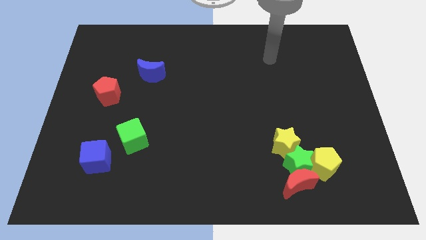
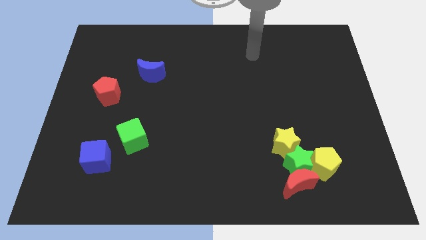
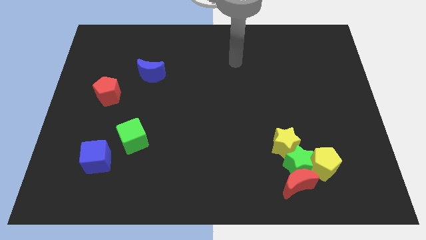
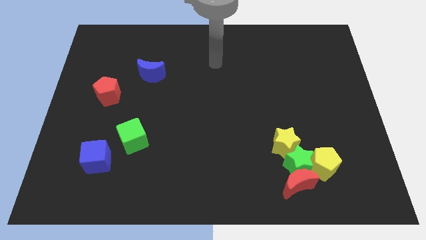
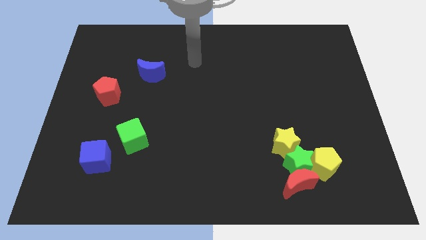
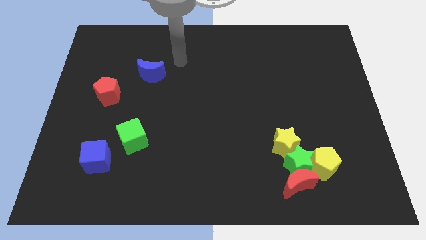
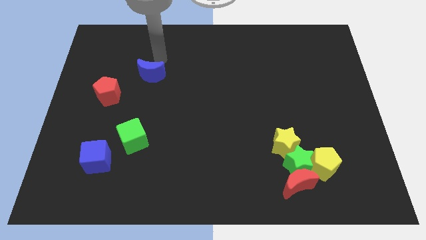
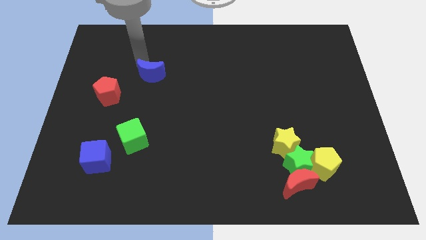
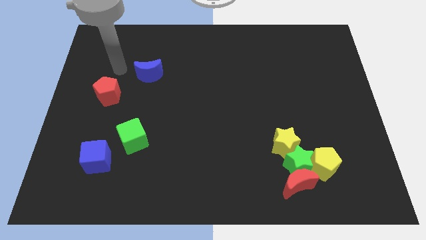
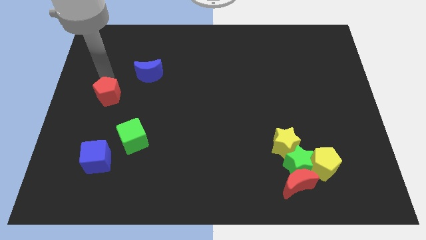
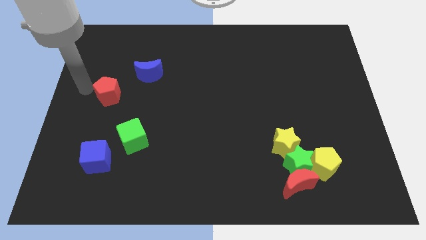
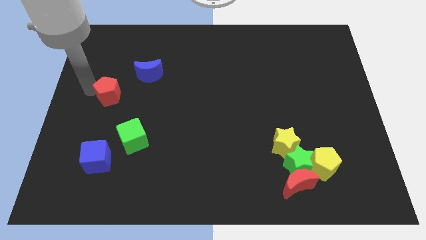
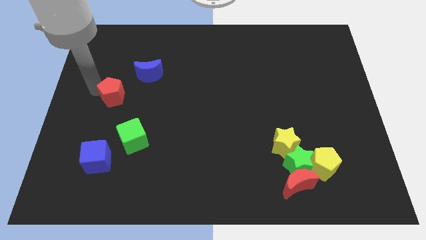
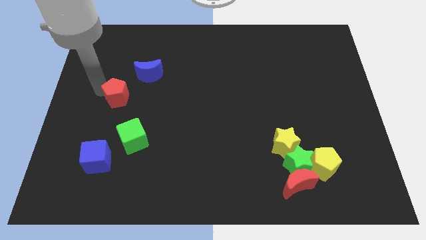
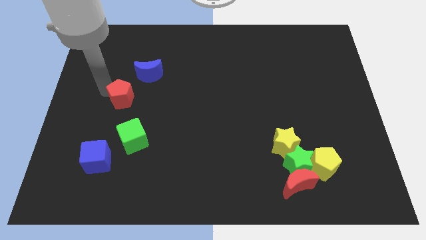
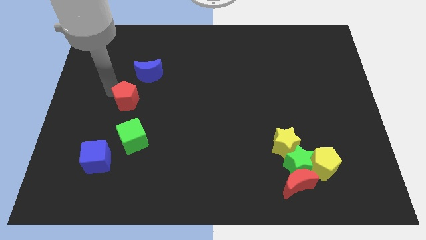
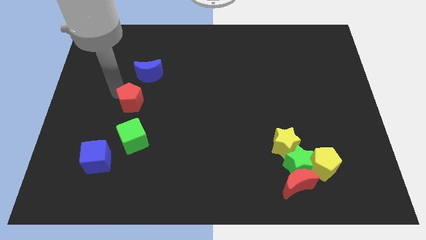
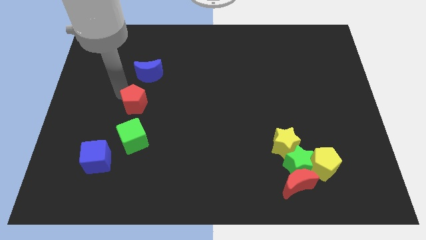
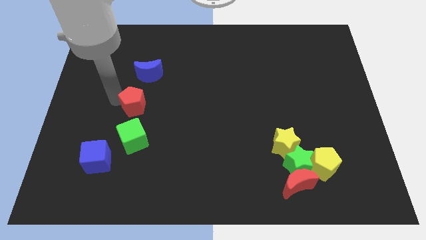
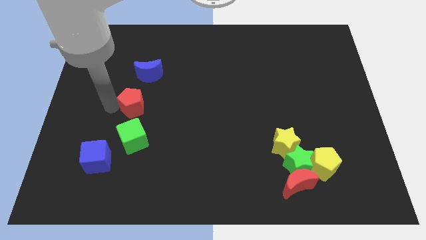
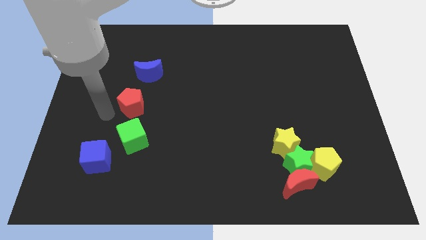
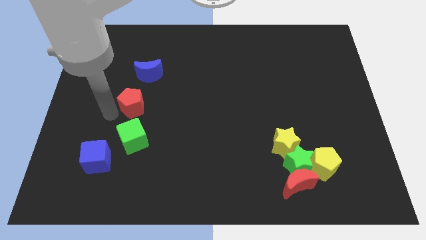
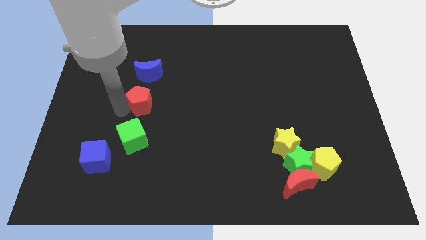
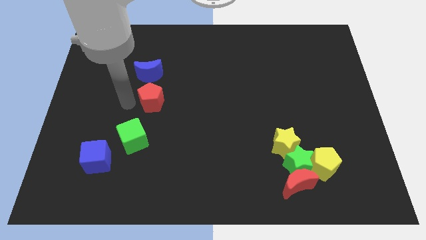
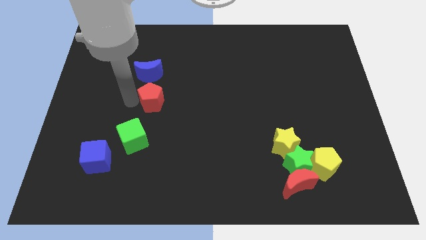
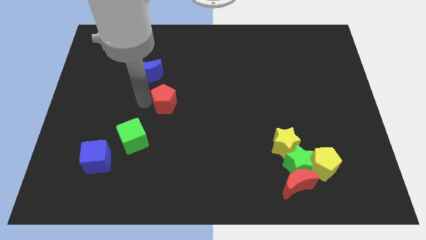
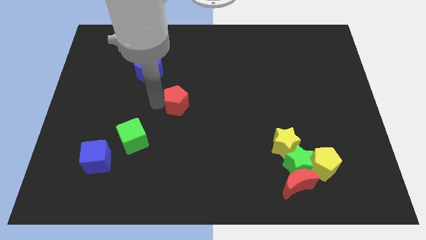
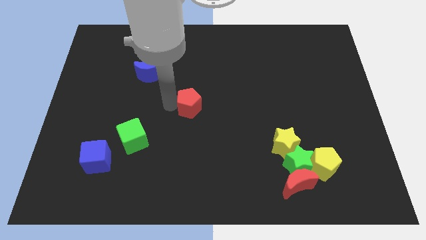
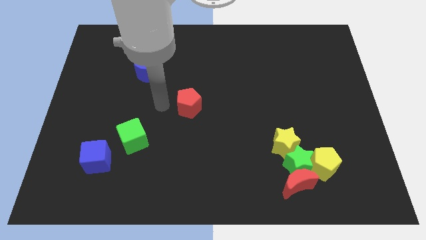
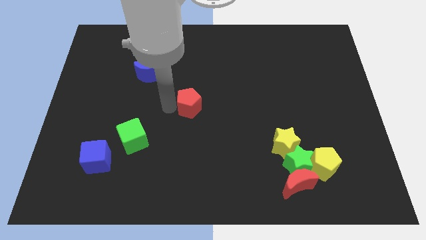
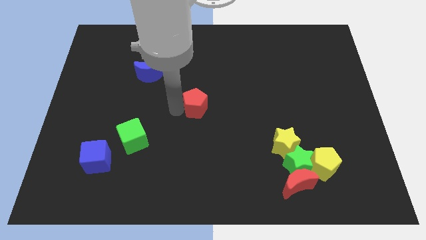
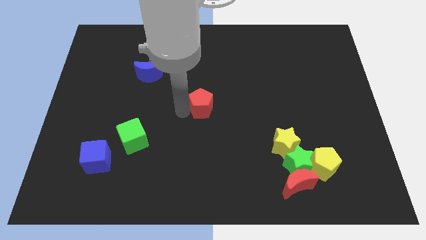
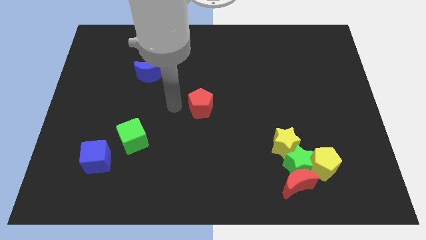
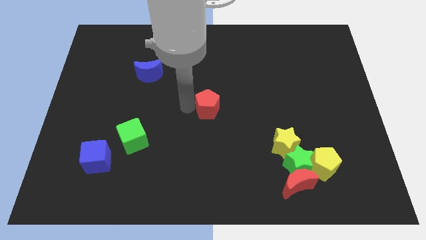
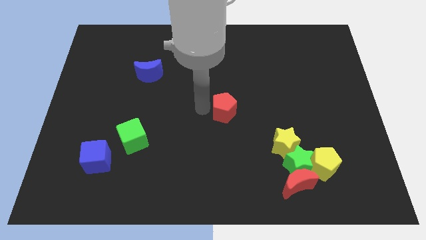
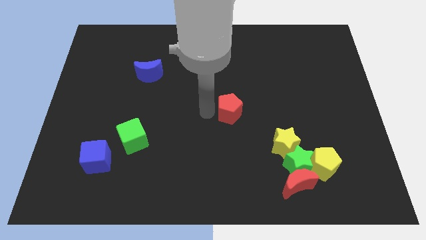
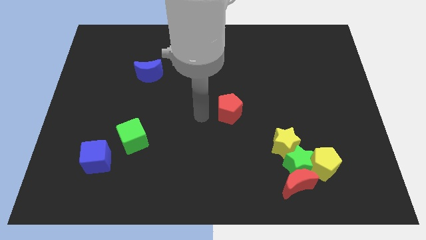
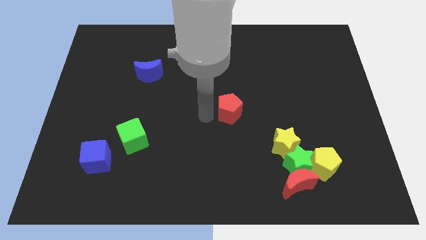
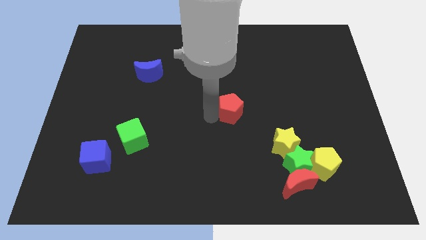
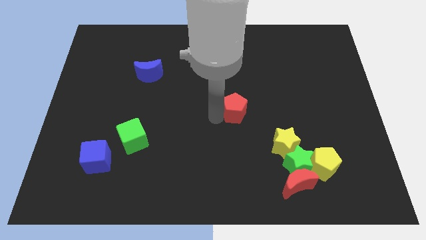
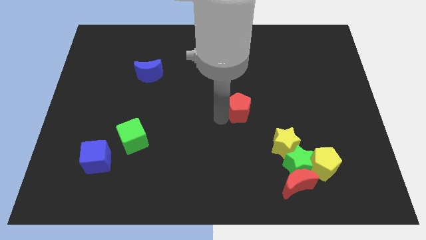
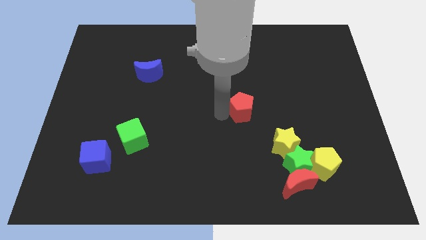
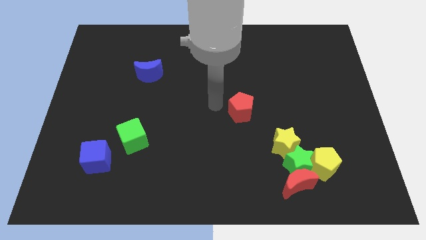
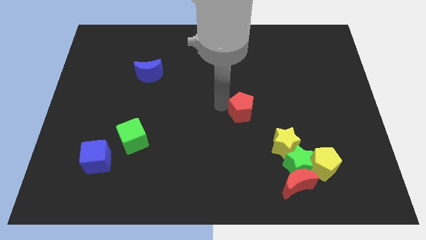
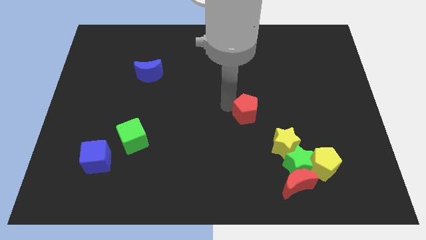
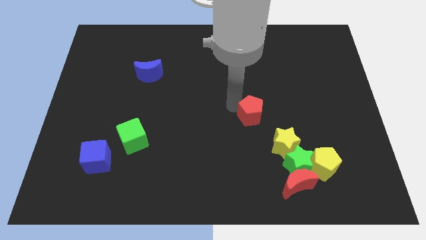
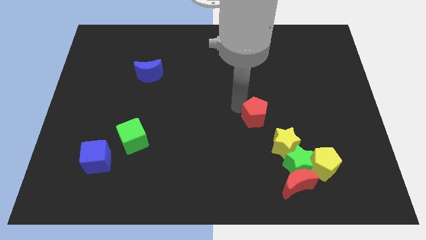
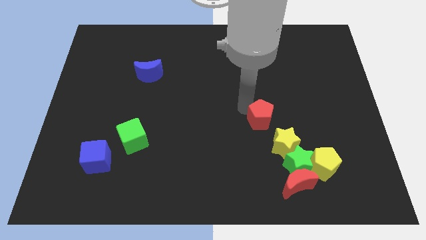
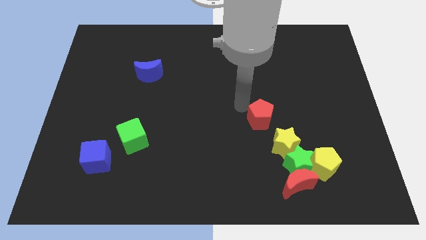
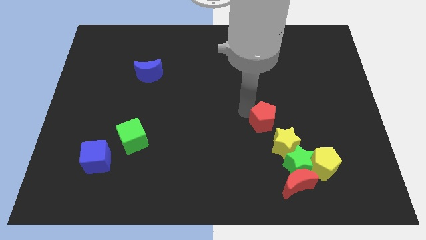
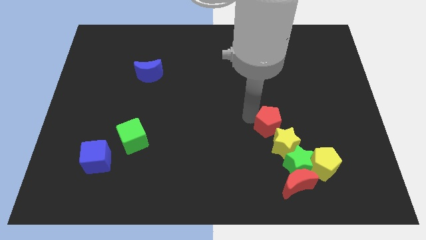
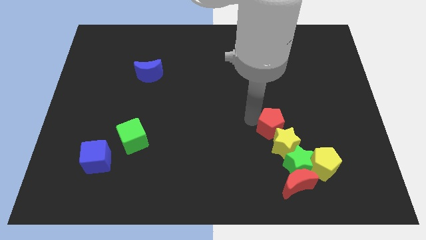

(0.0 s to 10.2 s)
put the red pentagon to the top of the red moon

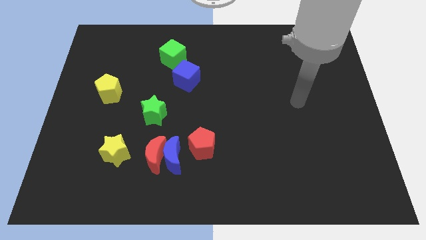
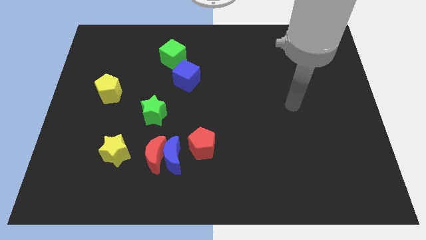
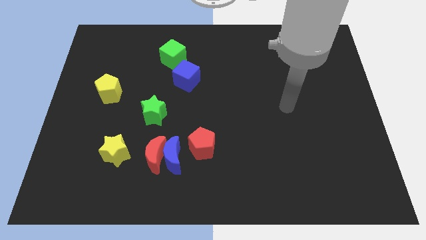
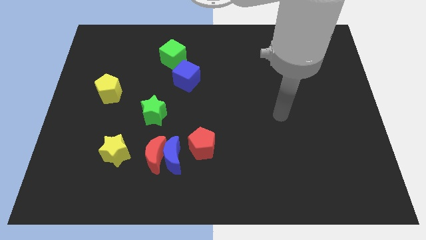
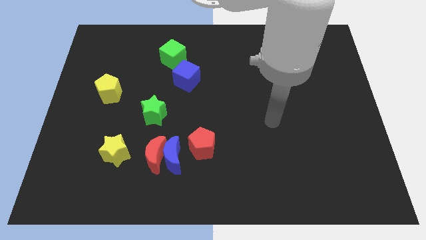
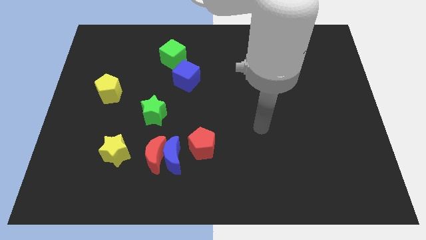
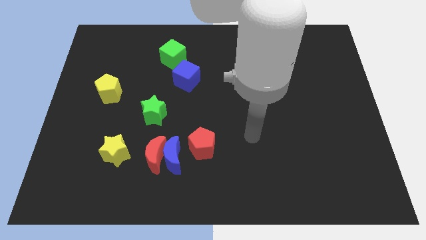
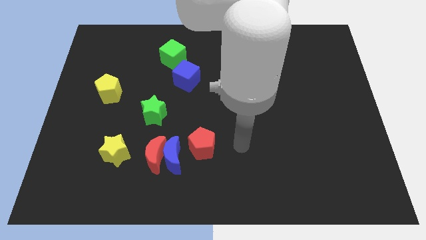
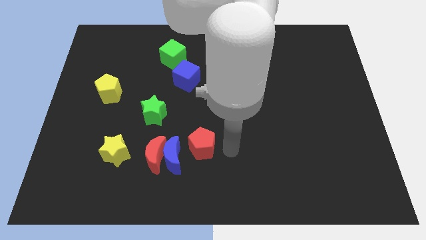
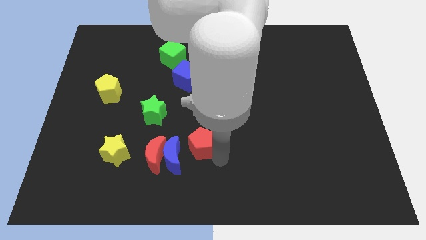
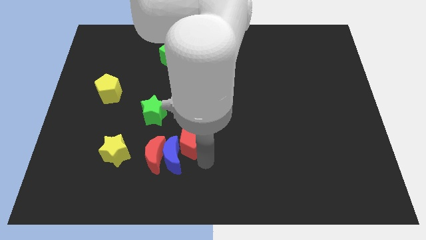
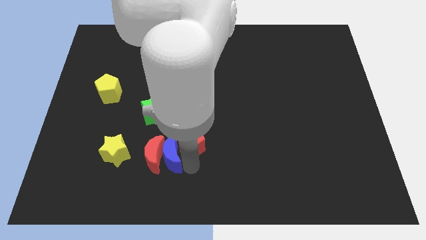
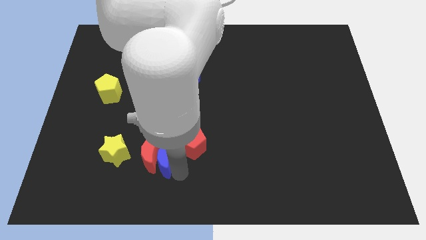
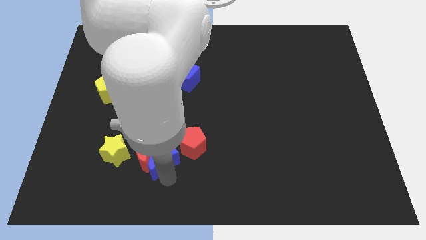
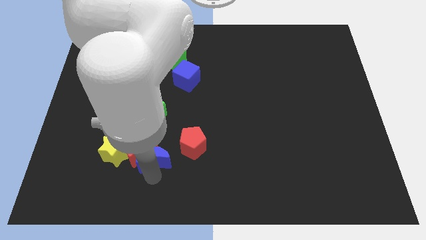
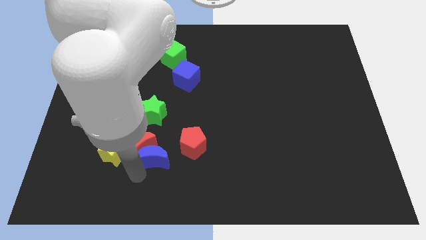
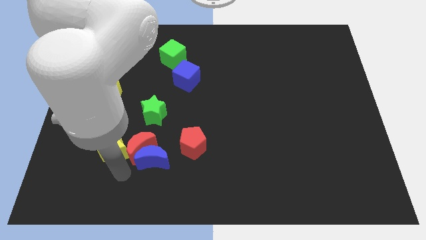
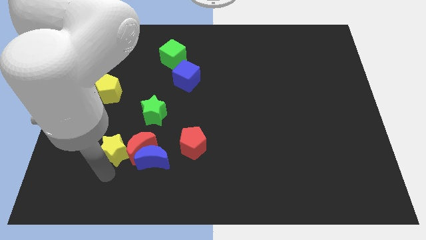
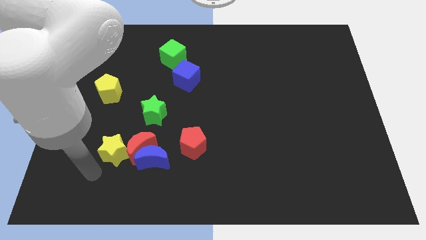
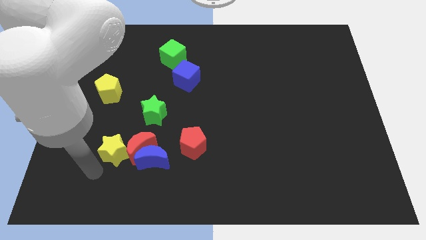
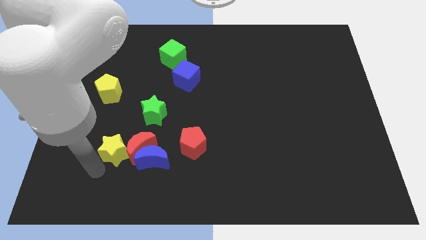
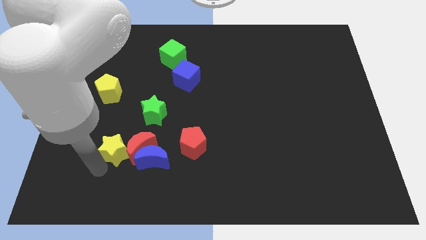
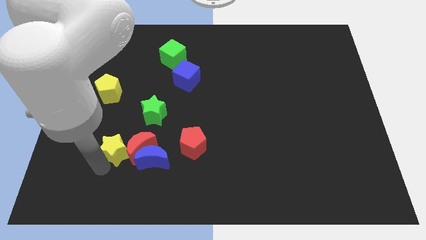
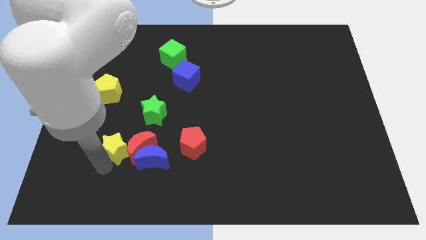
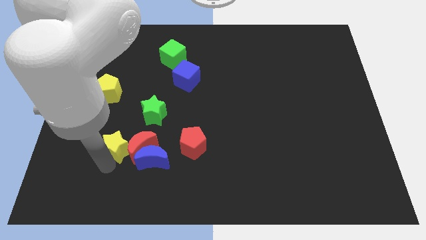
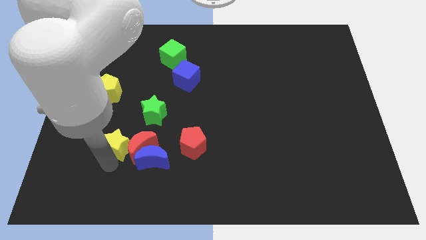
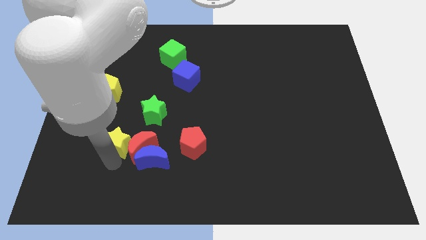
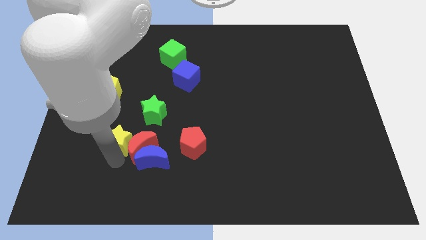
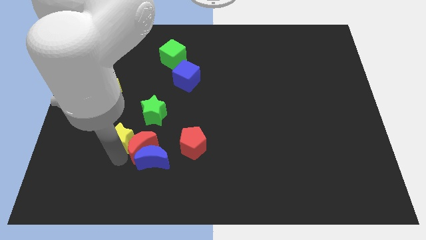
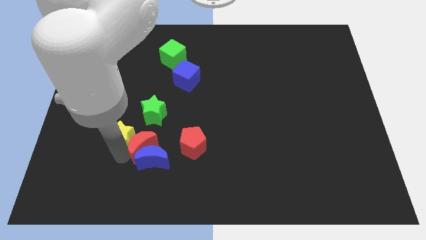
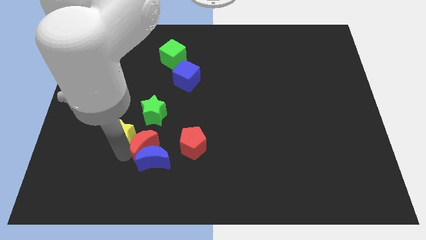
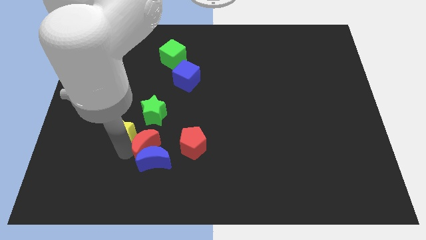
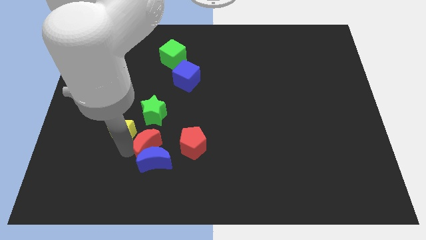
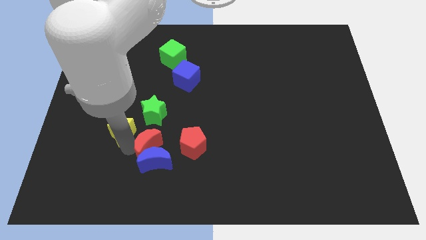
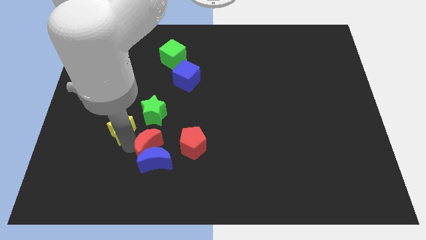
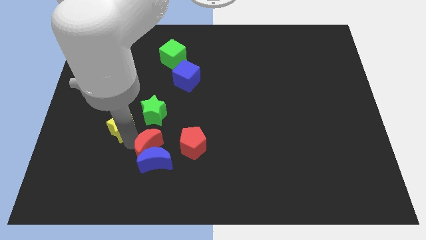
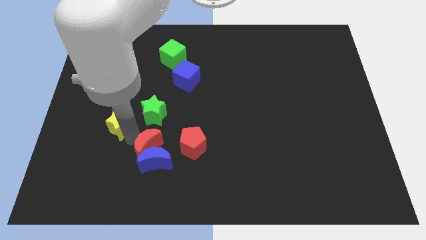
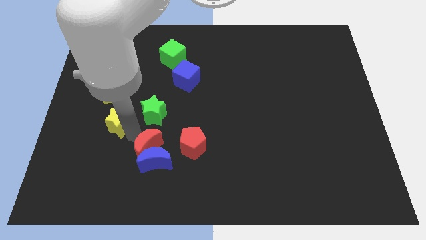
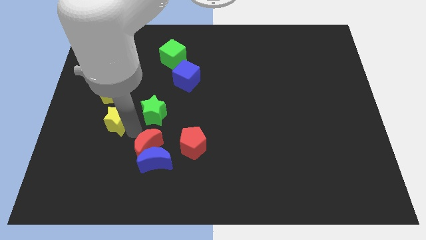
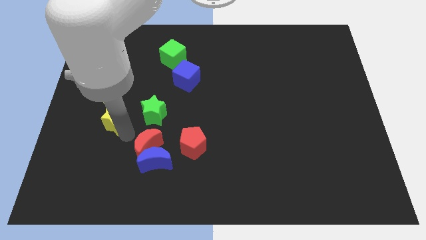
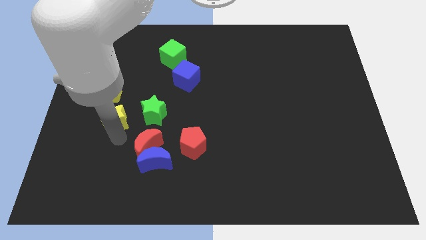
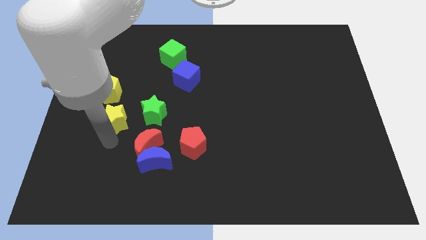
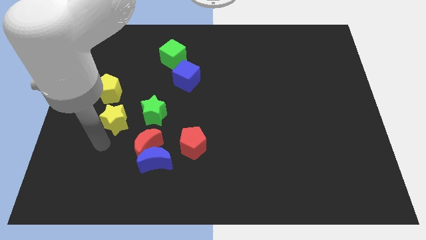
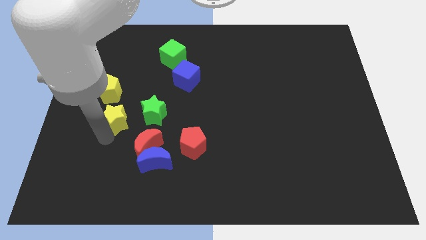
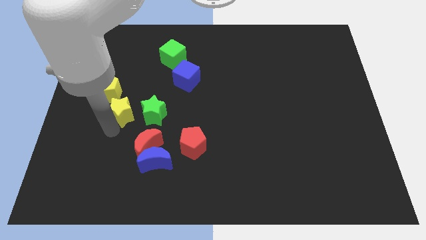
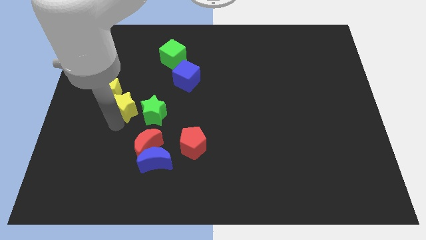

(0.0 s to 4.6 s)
put the yellow star to the top left of the green star
